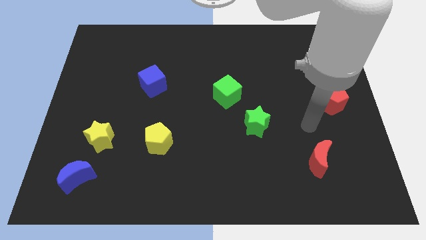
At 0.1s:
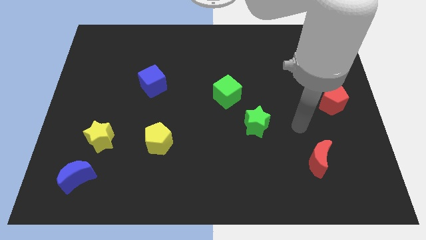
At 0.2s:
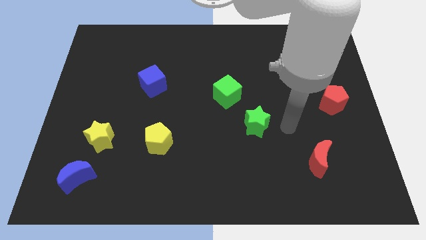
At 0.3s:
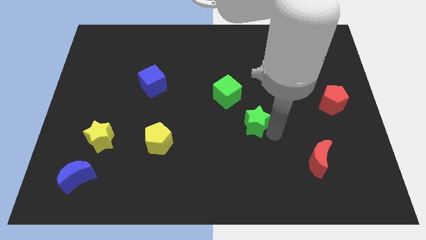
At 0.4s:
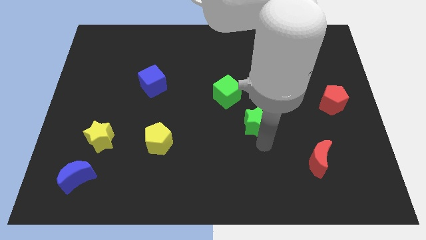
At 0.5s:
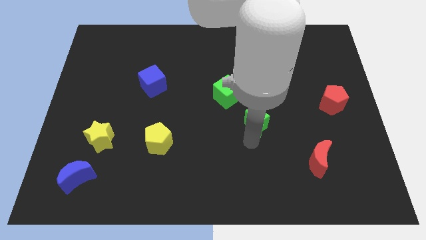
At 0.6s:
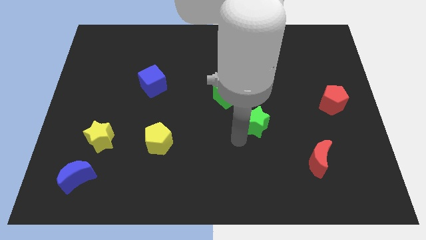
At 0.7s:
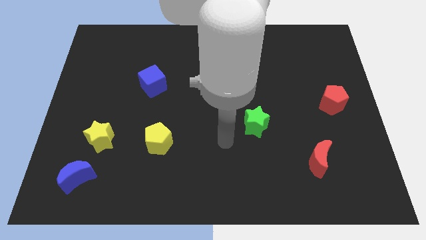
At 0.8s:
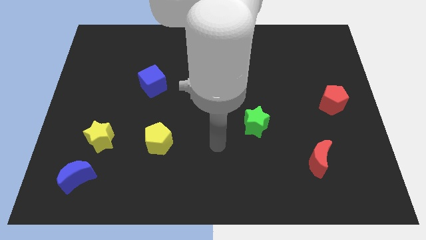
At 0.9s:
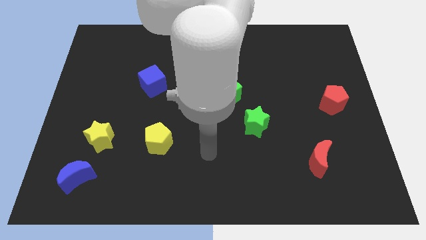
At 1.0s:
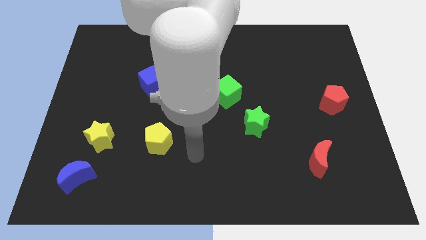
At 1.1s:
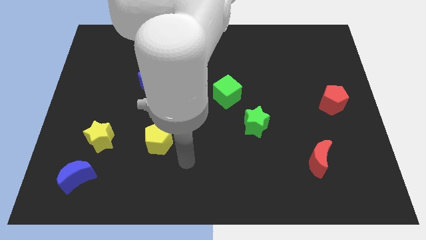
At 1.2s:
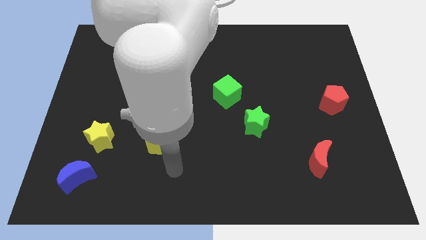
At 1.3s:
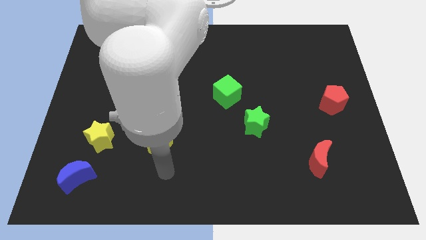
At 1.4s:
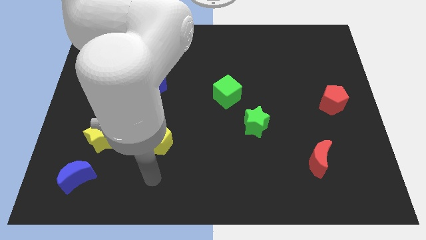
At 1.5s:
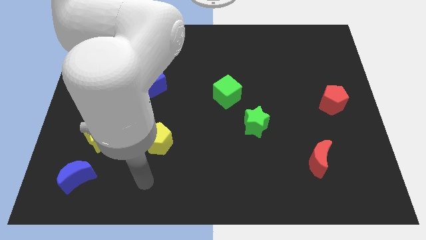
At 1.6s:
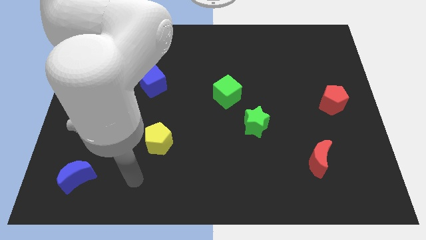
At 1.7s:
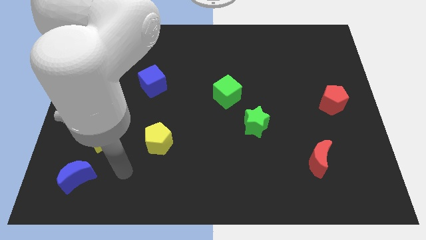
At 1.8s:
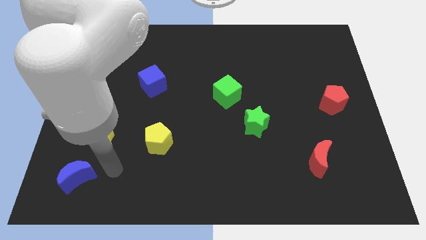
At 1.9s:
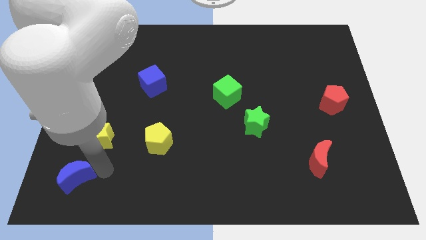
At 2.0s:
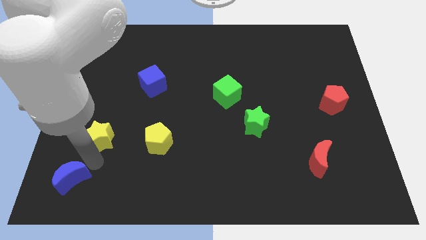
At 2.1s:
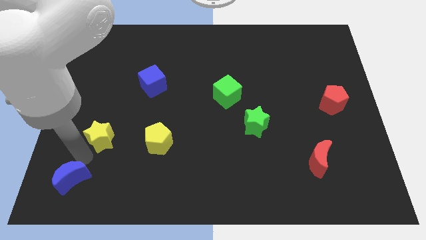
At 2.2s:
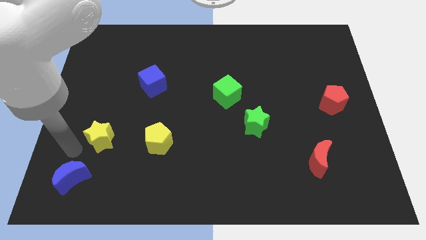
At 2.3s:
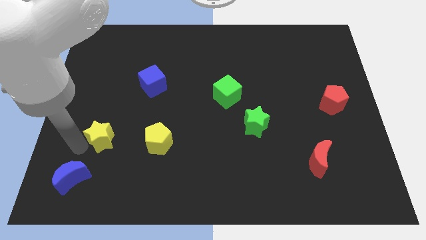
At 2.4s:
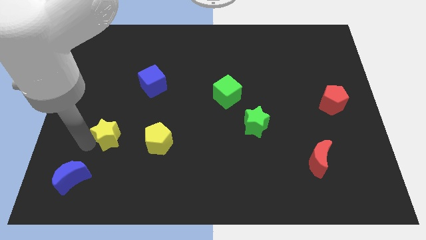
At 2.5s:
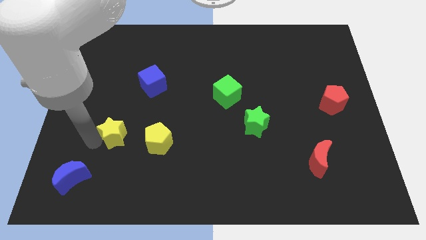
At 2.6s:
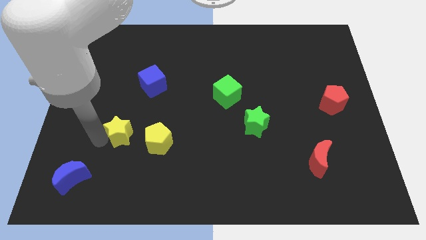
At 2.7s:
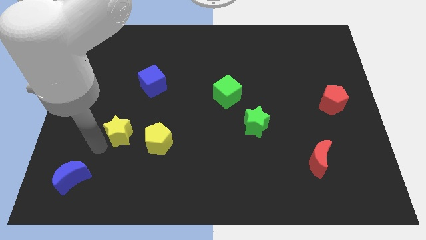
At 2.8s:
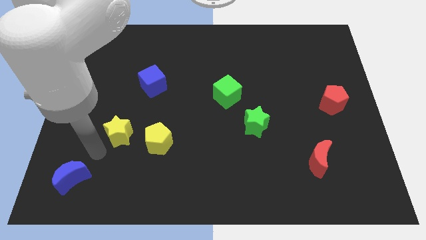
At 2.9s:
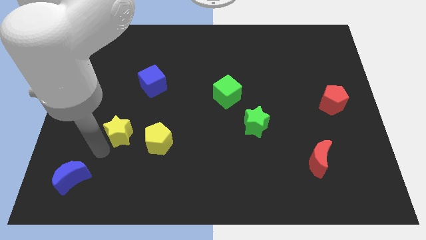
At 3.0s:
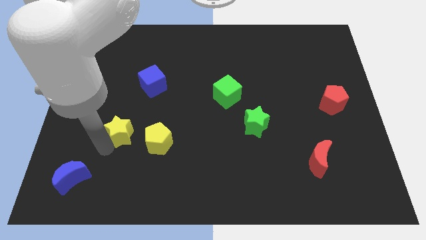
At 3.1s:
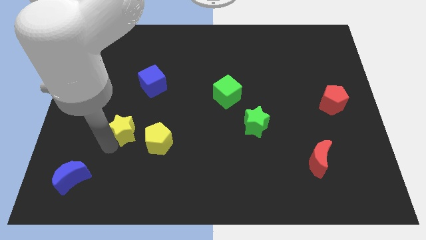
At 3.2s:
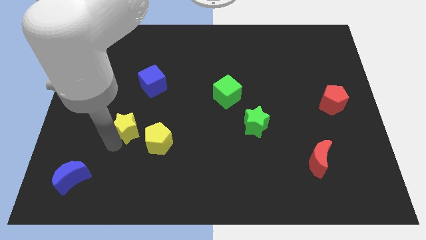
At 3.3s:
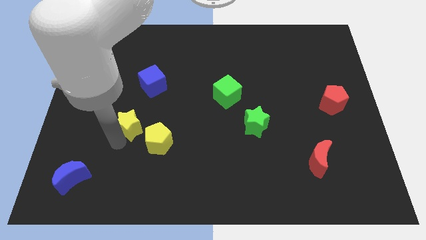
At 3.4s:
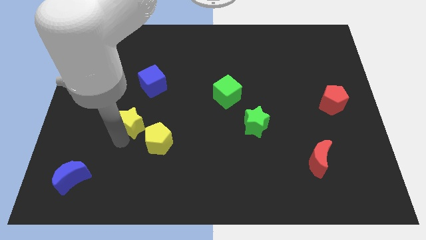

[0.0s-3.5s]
slide the yellow star up and then right a little bit

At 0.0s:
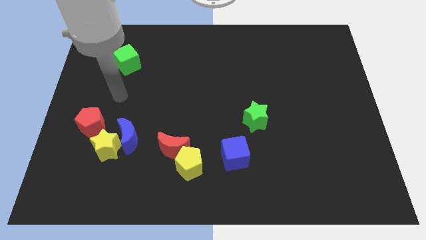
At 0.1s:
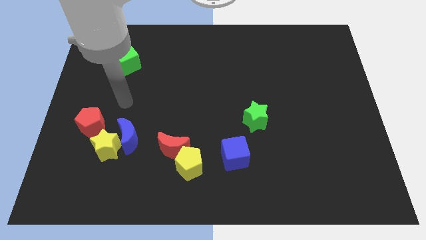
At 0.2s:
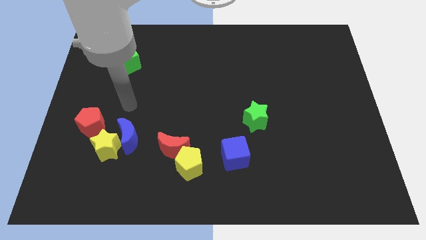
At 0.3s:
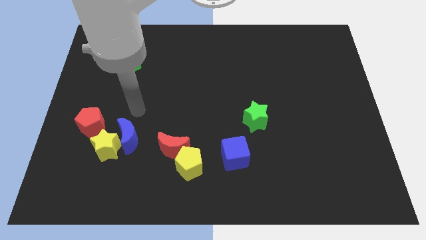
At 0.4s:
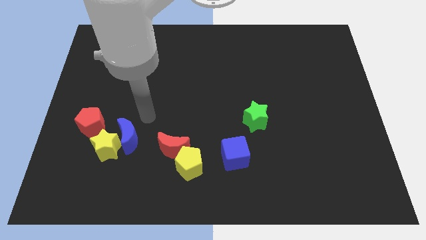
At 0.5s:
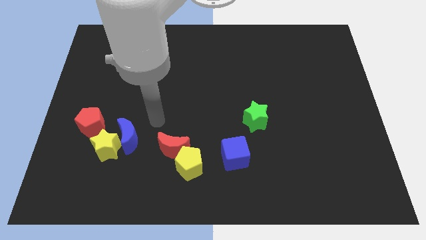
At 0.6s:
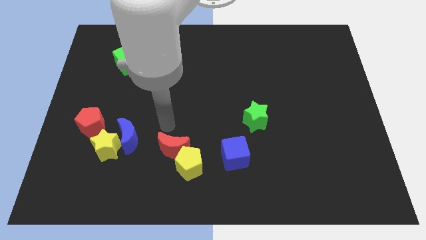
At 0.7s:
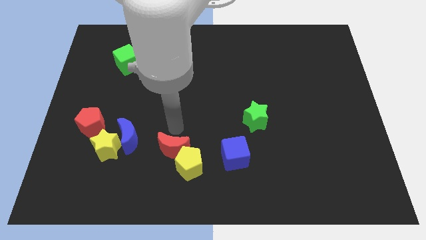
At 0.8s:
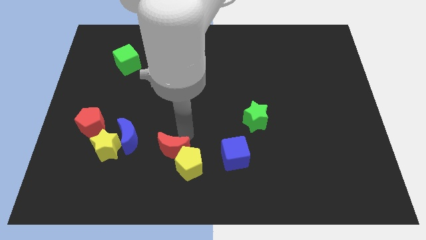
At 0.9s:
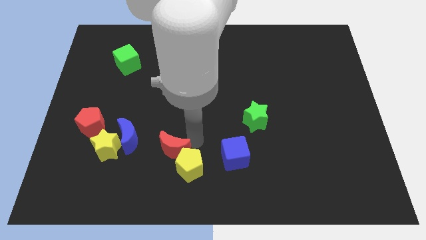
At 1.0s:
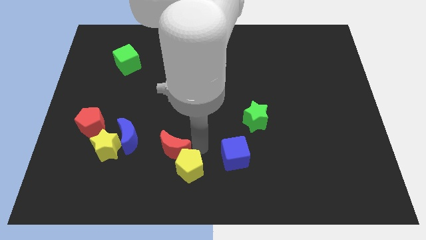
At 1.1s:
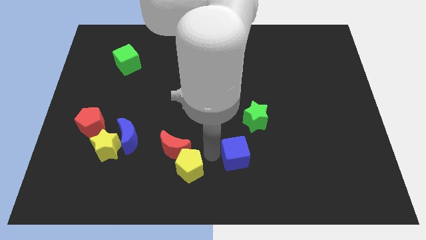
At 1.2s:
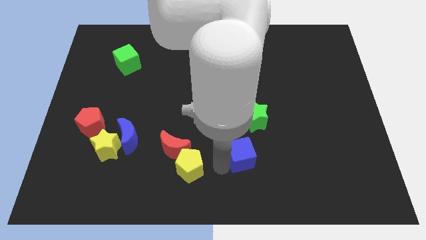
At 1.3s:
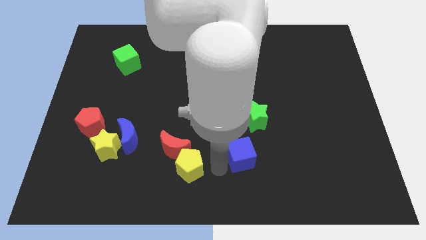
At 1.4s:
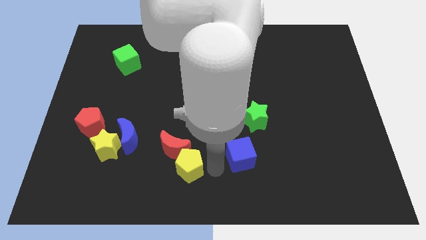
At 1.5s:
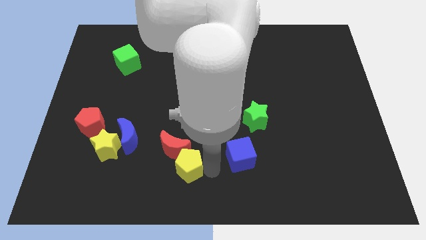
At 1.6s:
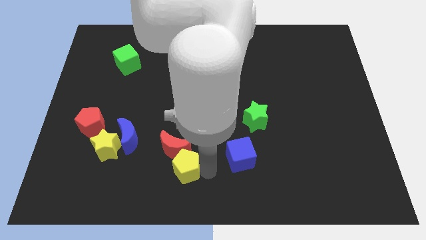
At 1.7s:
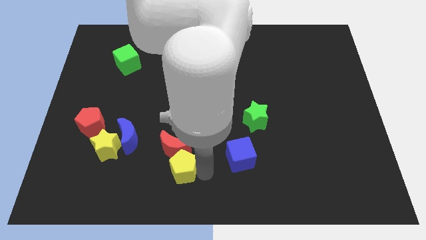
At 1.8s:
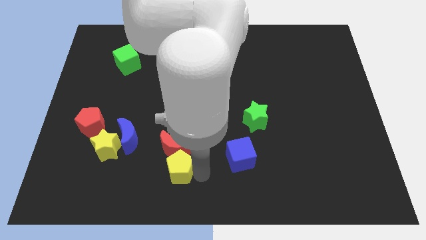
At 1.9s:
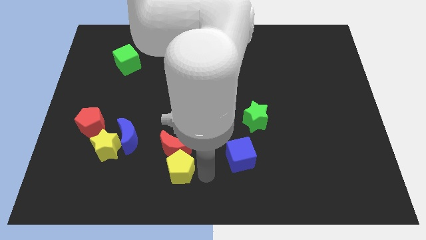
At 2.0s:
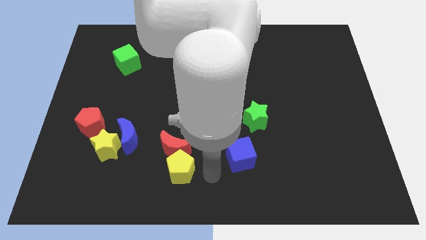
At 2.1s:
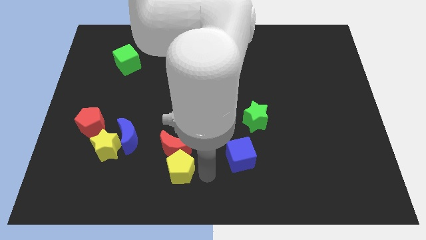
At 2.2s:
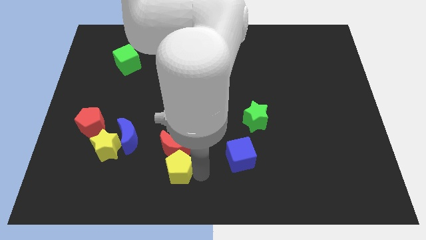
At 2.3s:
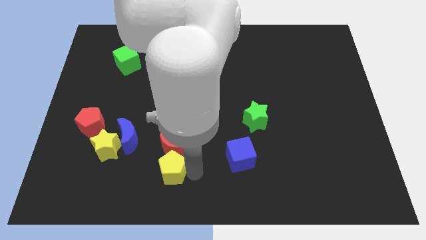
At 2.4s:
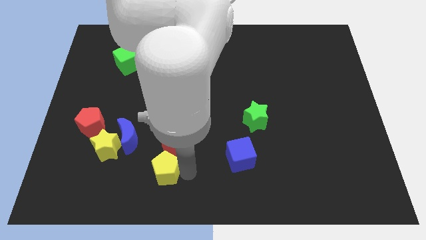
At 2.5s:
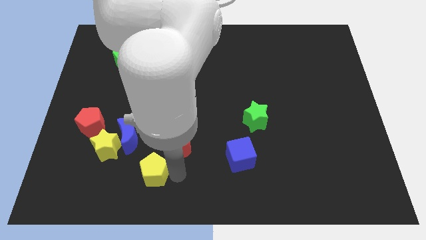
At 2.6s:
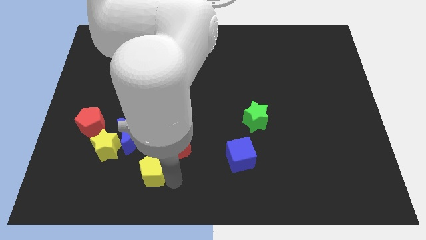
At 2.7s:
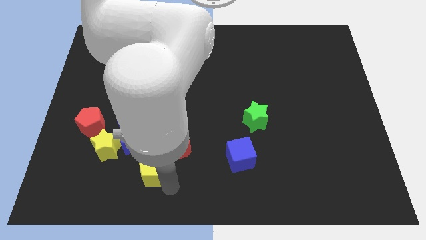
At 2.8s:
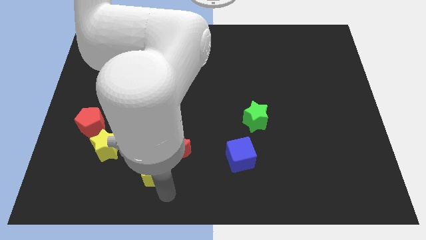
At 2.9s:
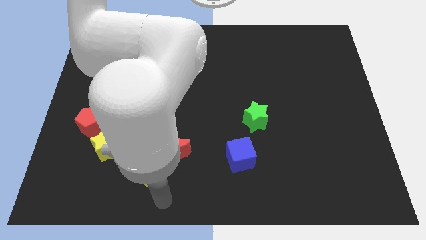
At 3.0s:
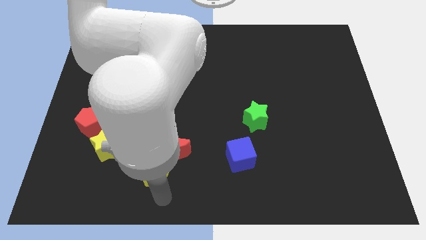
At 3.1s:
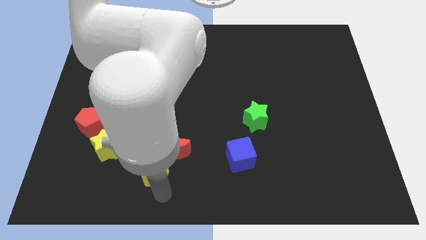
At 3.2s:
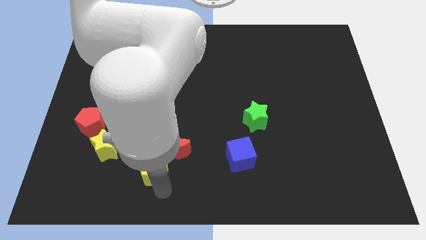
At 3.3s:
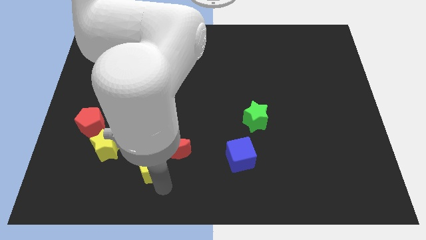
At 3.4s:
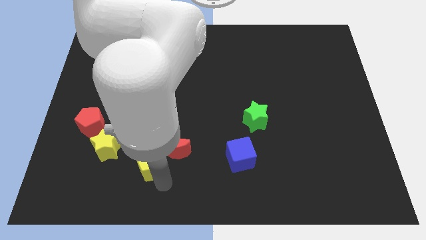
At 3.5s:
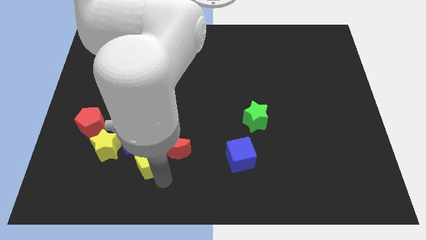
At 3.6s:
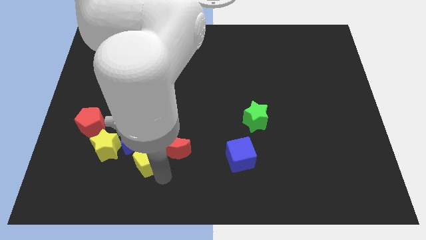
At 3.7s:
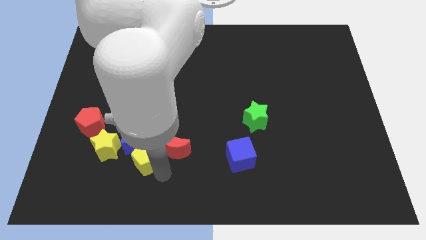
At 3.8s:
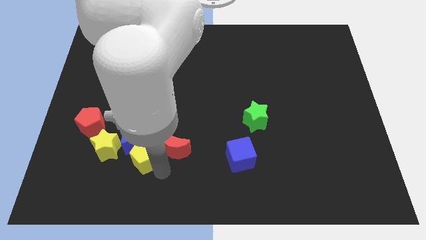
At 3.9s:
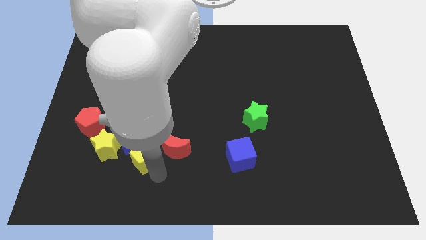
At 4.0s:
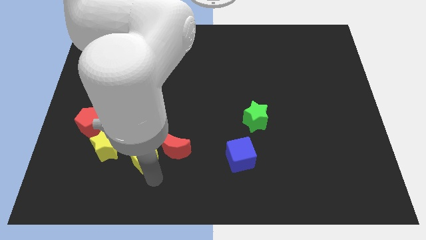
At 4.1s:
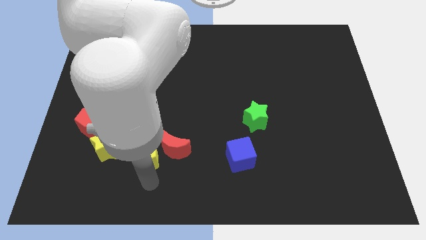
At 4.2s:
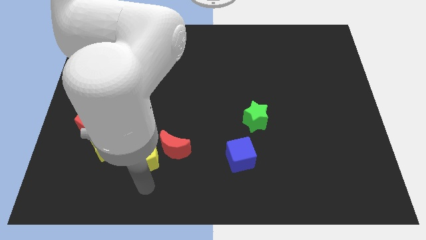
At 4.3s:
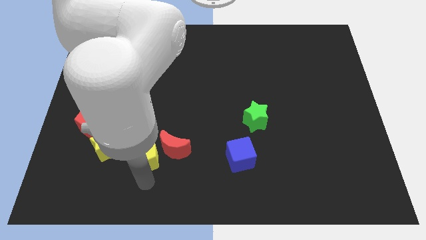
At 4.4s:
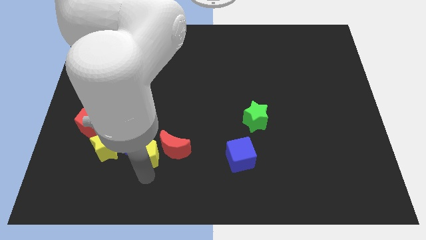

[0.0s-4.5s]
slightly move the yellow pentagon up and left

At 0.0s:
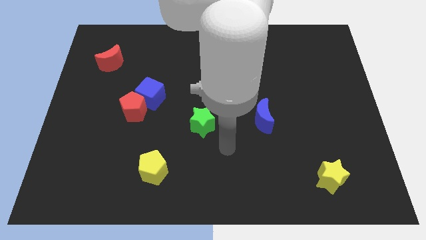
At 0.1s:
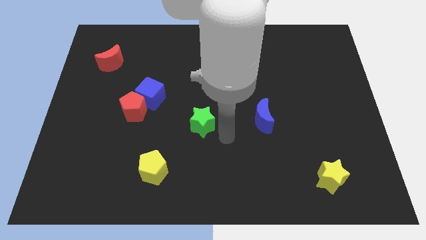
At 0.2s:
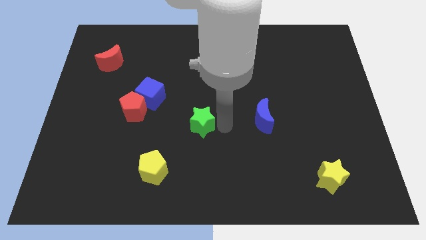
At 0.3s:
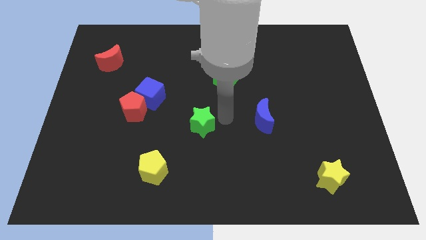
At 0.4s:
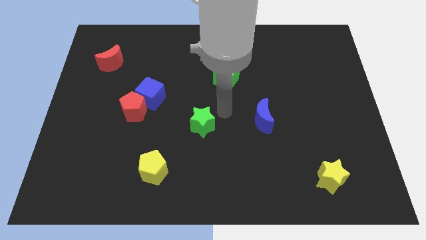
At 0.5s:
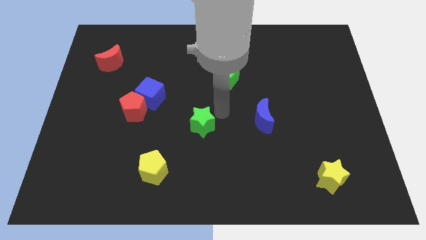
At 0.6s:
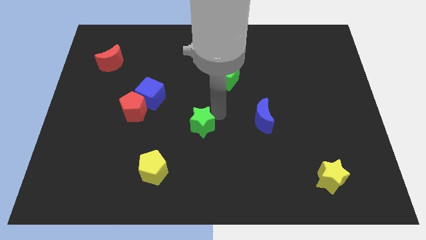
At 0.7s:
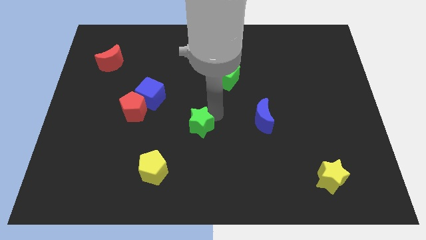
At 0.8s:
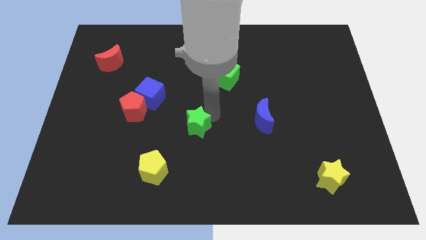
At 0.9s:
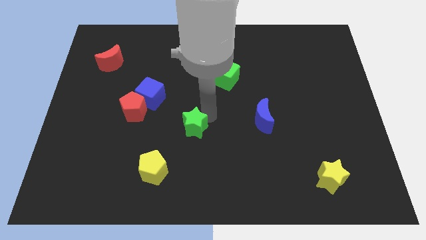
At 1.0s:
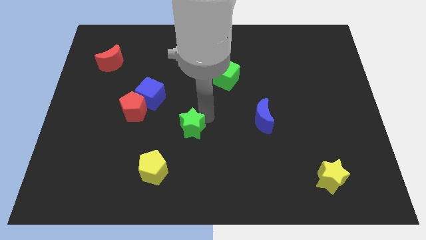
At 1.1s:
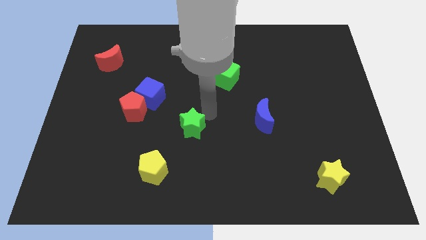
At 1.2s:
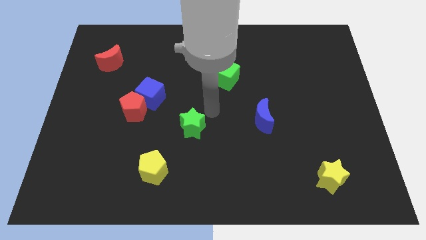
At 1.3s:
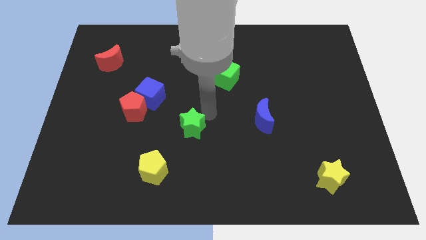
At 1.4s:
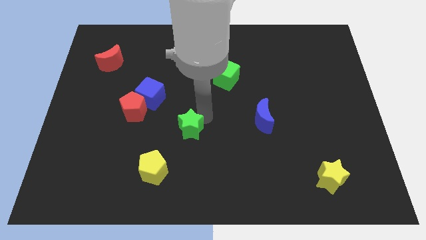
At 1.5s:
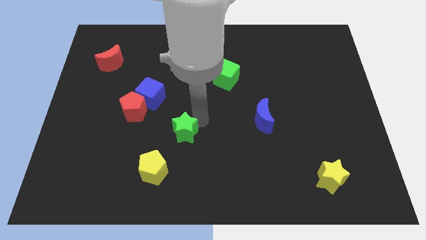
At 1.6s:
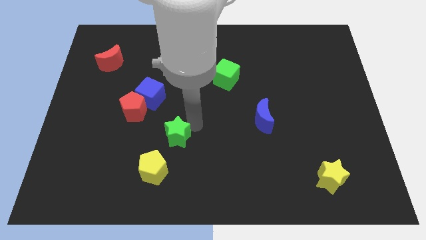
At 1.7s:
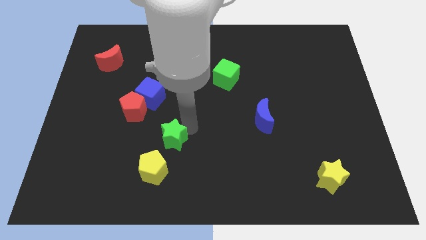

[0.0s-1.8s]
move the green star down and left diagonally somewhat
